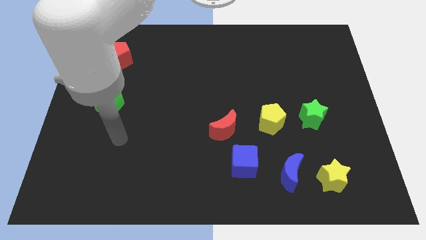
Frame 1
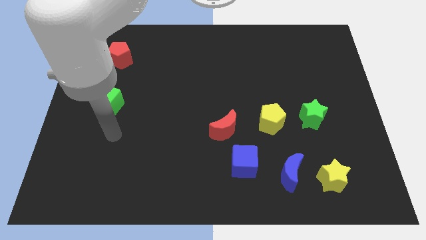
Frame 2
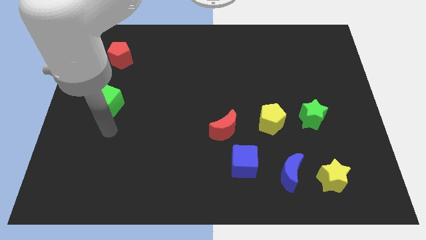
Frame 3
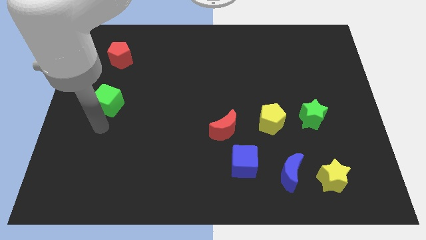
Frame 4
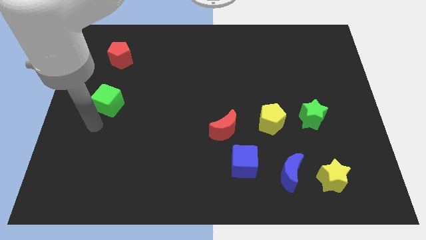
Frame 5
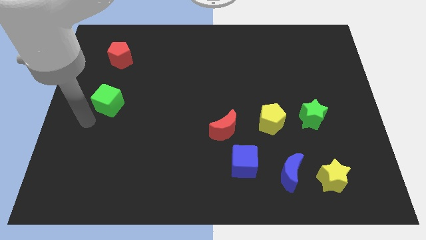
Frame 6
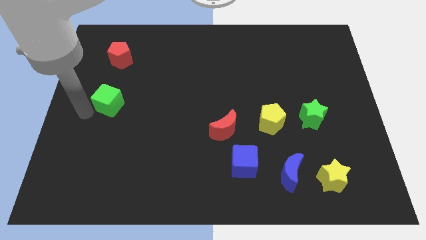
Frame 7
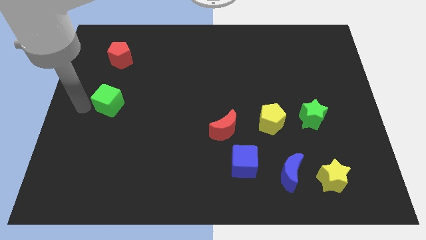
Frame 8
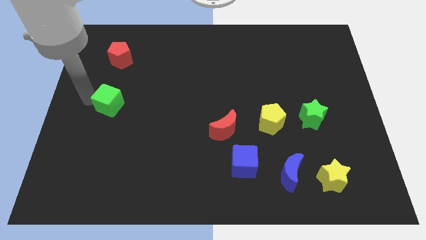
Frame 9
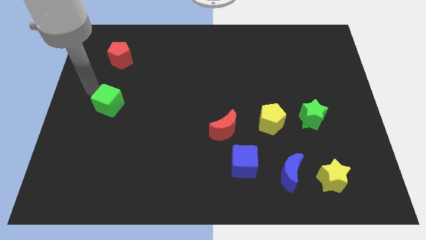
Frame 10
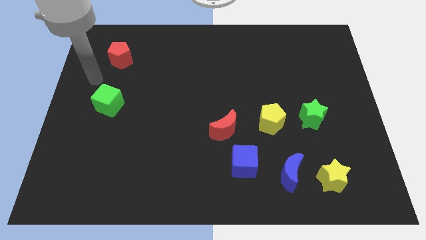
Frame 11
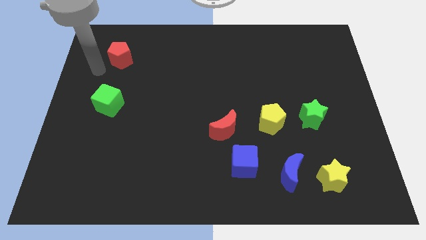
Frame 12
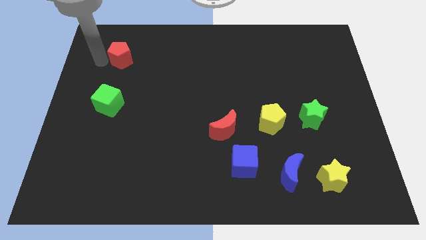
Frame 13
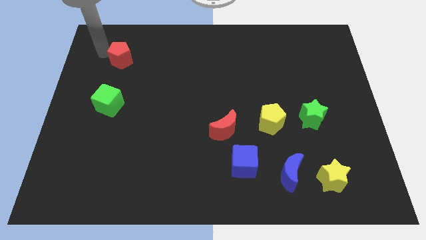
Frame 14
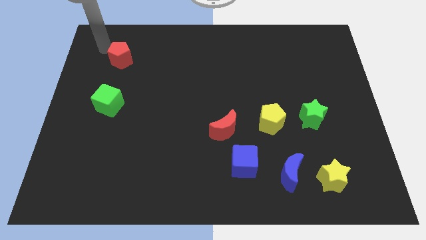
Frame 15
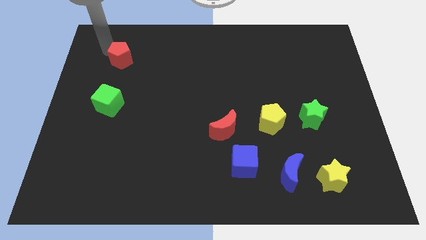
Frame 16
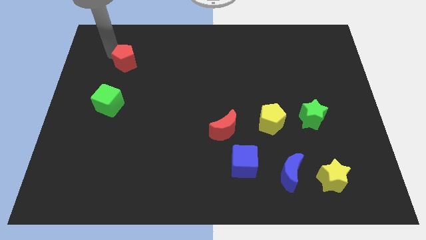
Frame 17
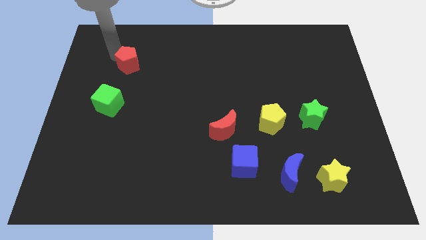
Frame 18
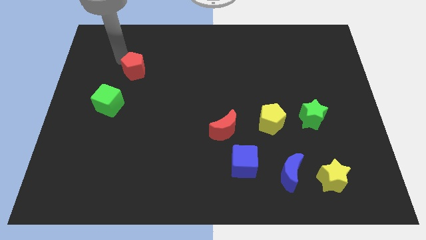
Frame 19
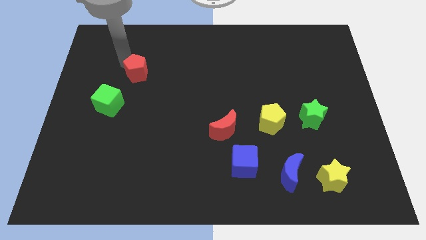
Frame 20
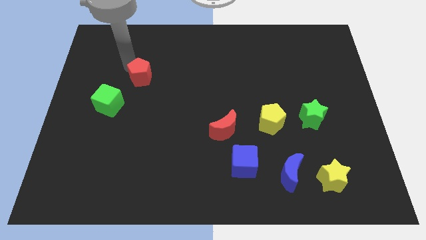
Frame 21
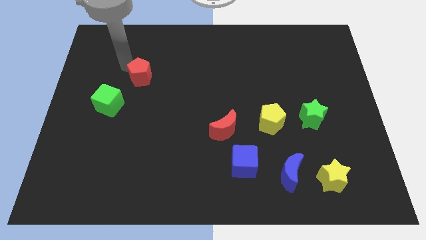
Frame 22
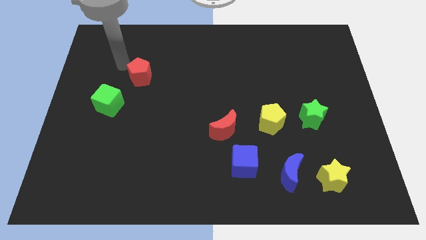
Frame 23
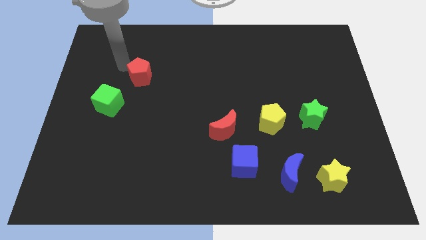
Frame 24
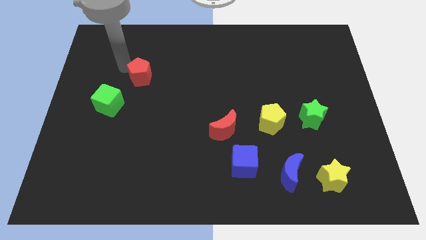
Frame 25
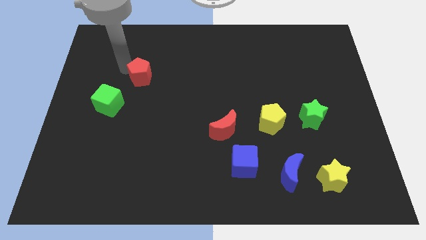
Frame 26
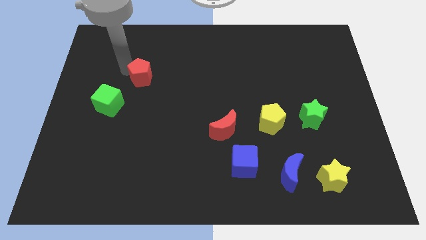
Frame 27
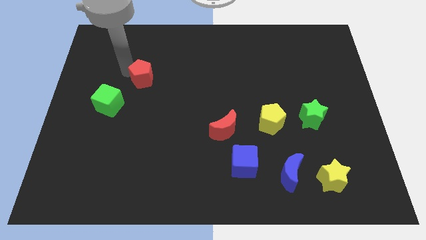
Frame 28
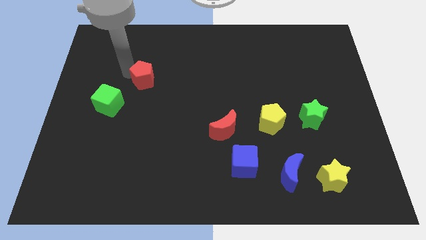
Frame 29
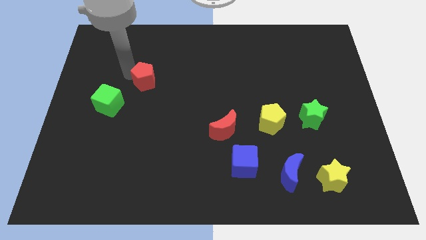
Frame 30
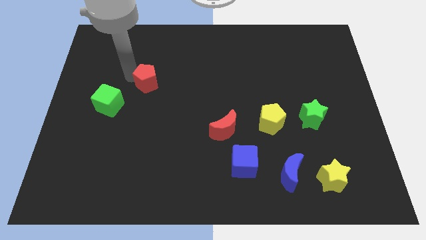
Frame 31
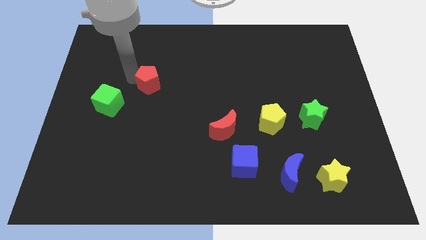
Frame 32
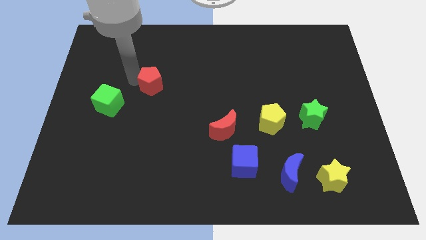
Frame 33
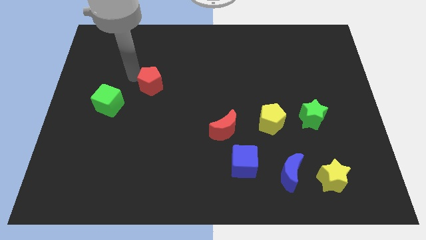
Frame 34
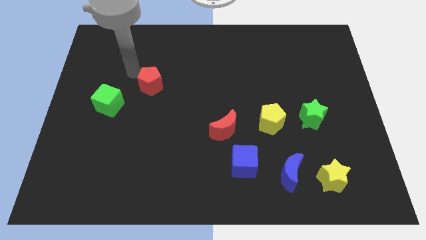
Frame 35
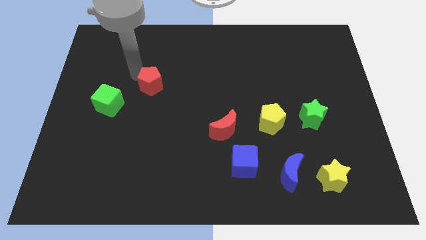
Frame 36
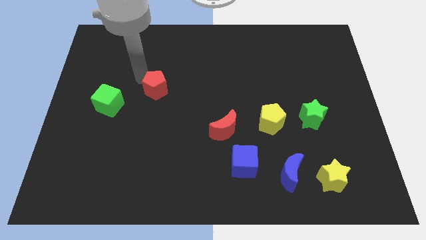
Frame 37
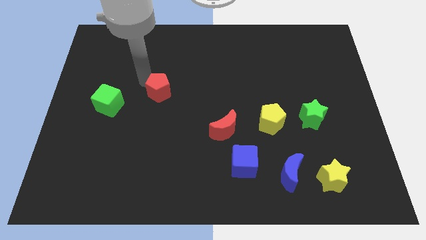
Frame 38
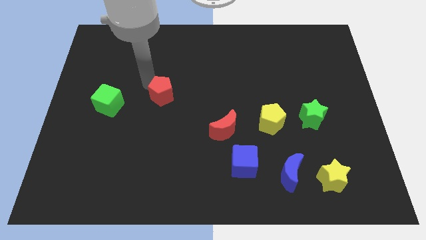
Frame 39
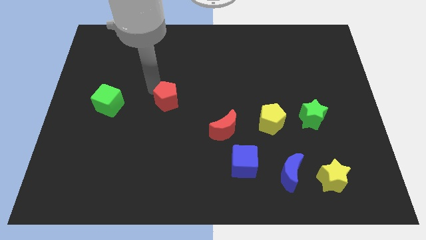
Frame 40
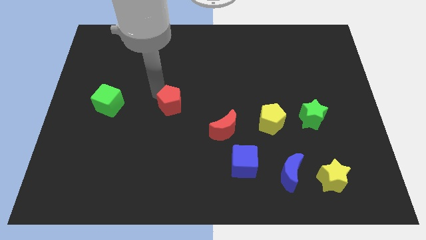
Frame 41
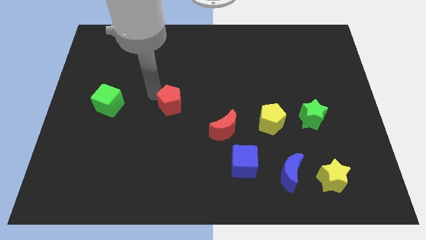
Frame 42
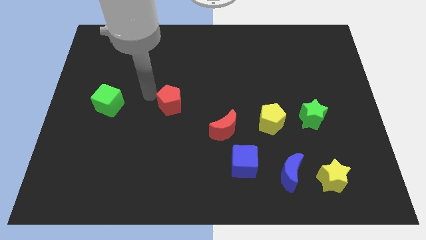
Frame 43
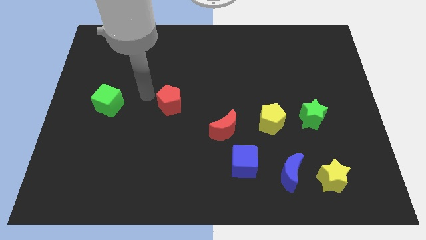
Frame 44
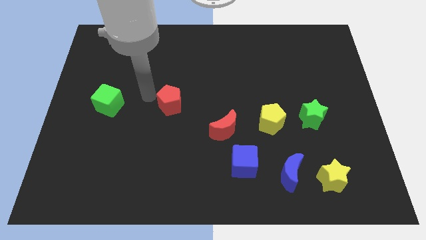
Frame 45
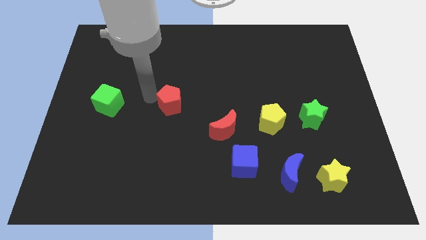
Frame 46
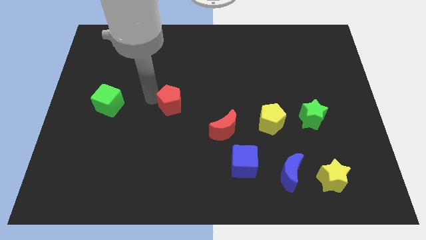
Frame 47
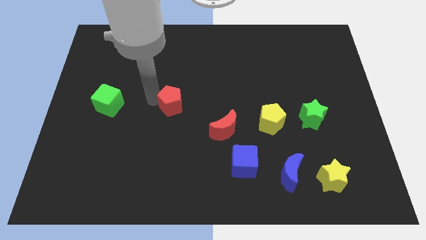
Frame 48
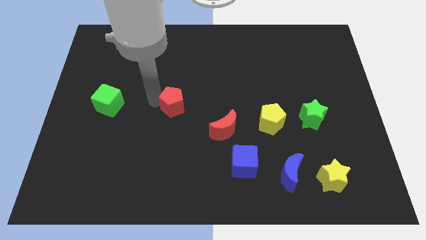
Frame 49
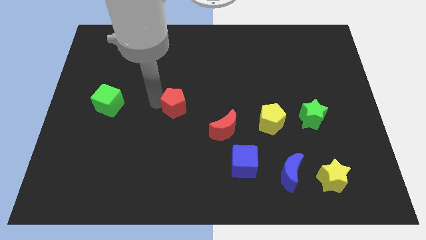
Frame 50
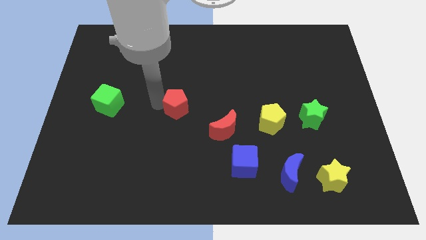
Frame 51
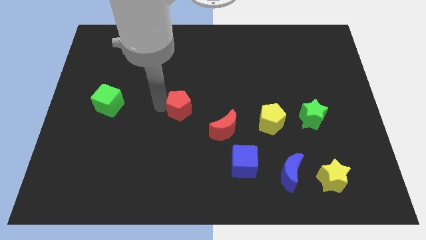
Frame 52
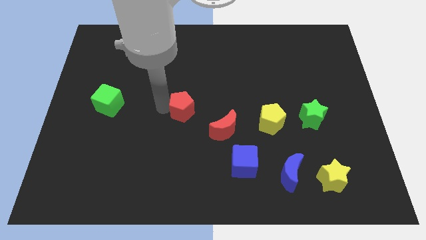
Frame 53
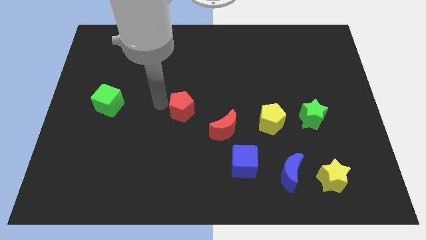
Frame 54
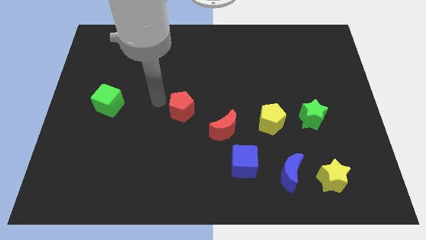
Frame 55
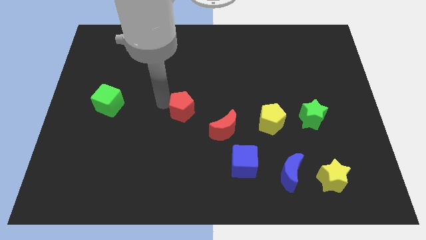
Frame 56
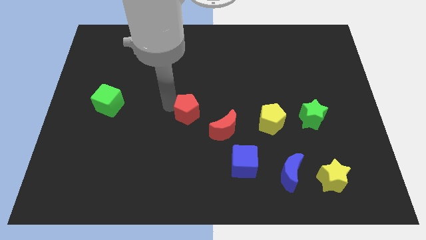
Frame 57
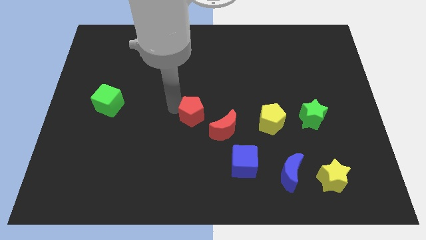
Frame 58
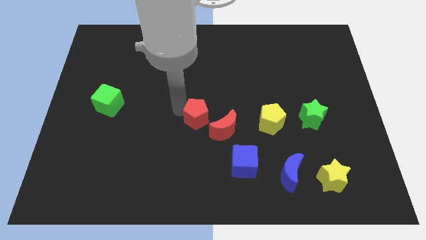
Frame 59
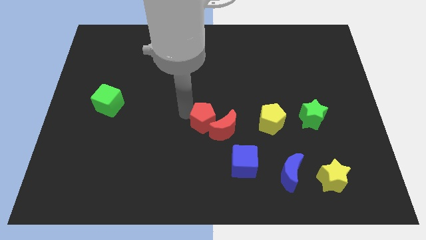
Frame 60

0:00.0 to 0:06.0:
move the red pentagon to the red moon

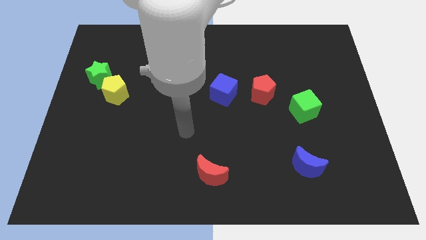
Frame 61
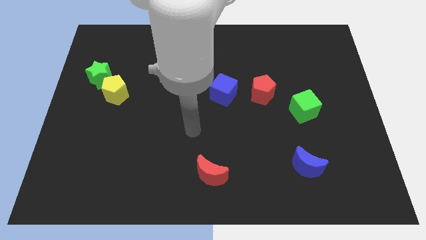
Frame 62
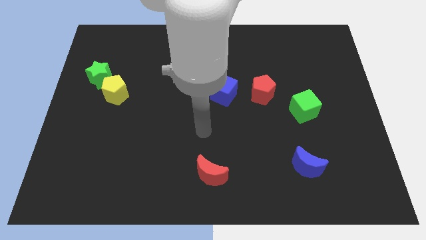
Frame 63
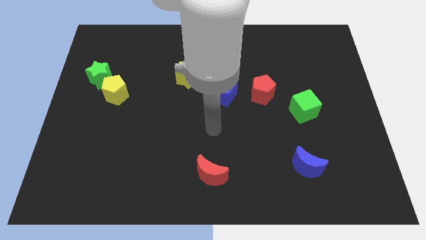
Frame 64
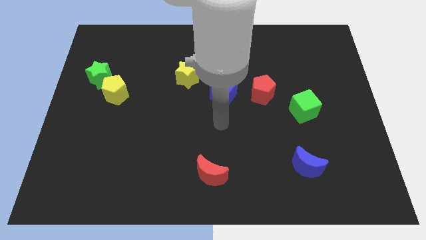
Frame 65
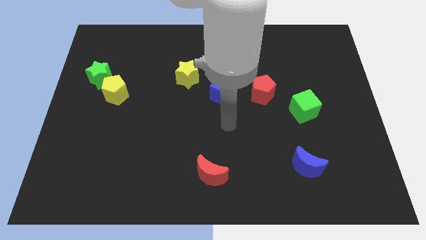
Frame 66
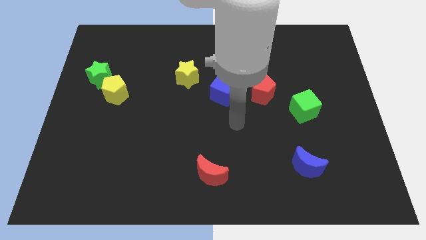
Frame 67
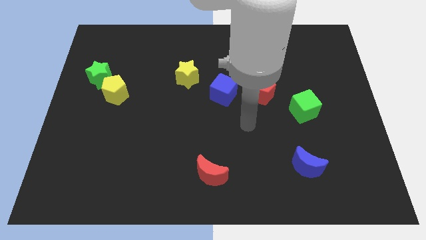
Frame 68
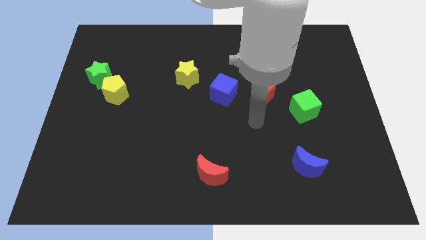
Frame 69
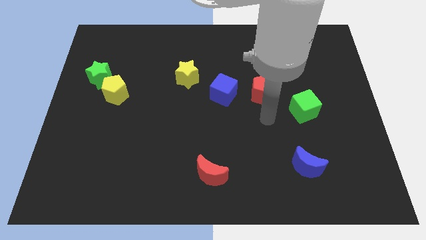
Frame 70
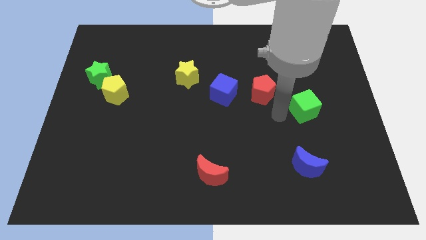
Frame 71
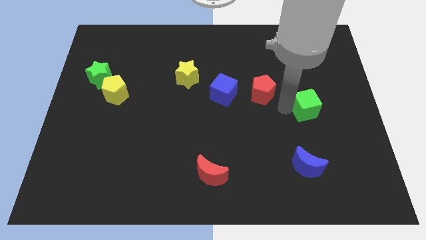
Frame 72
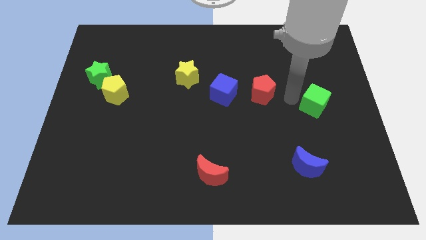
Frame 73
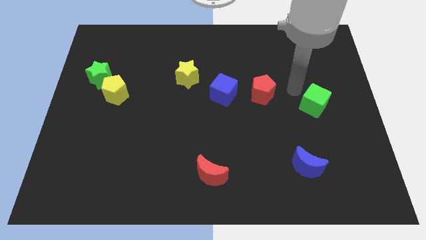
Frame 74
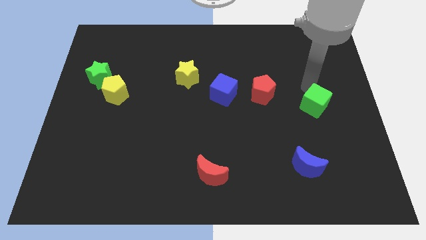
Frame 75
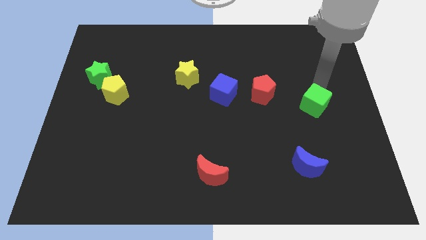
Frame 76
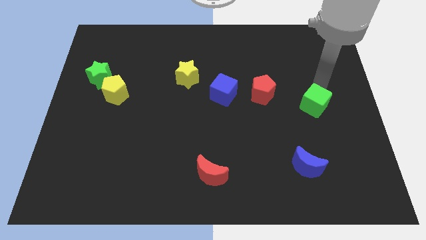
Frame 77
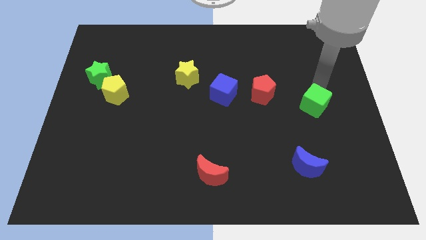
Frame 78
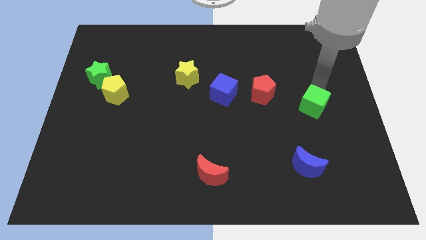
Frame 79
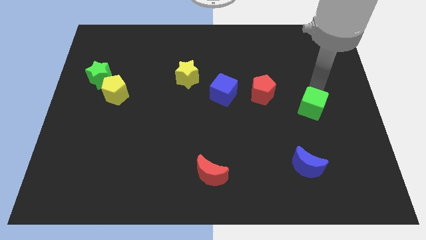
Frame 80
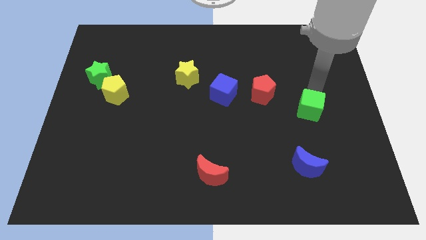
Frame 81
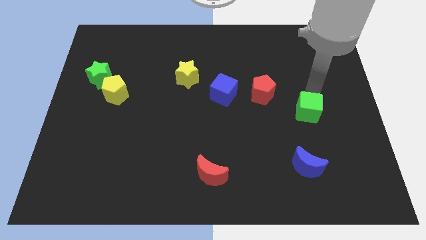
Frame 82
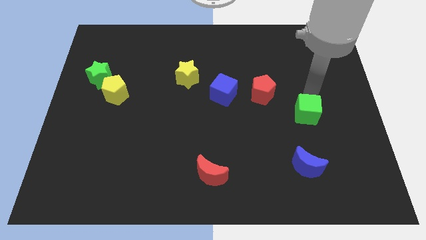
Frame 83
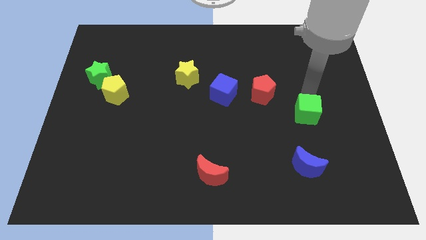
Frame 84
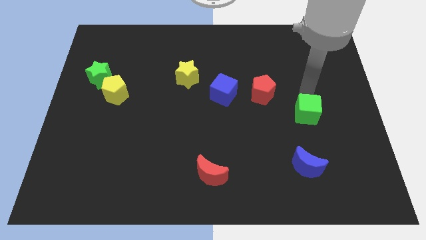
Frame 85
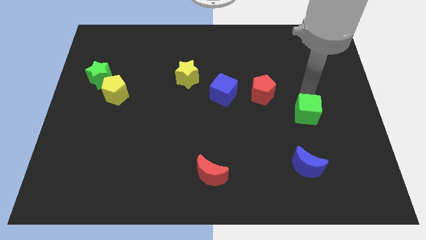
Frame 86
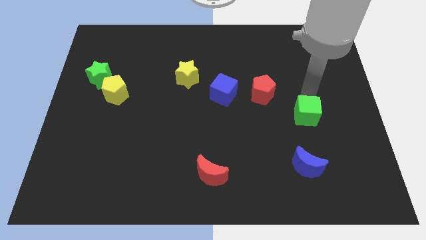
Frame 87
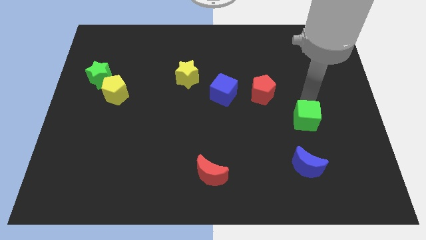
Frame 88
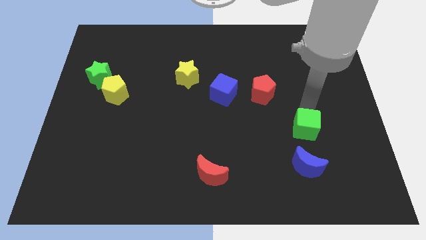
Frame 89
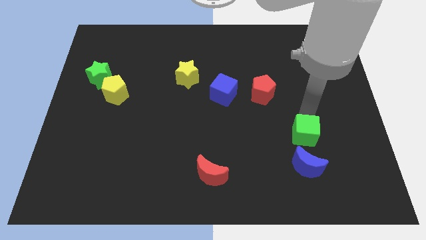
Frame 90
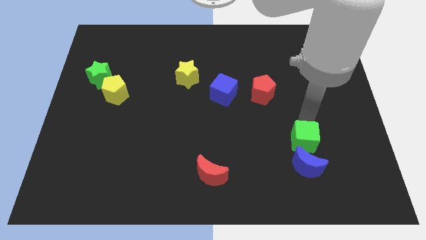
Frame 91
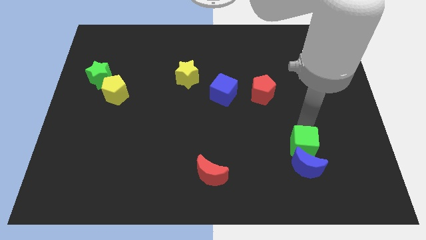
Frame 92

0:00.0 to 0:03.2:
move the green cube next to the blue moon
